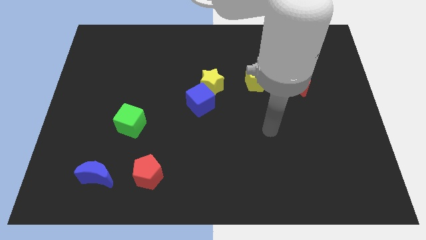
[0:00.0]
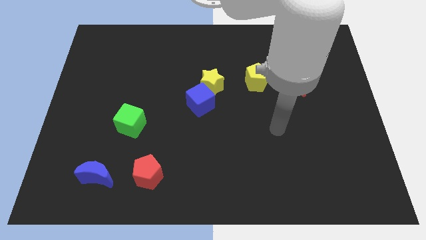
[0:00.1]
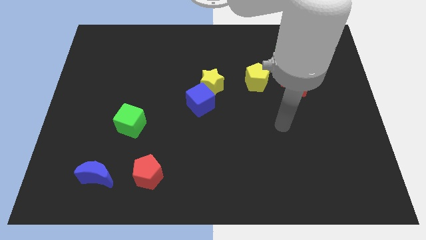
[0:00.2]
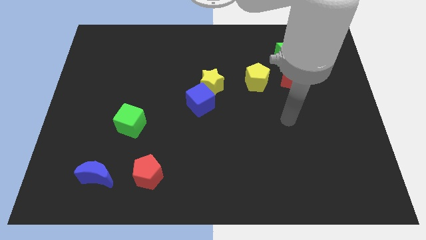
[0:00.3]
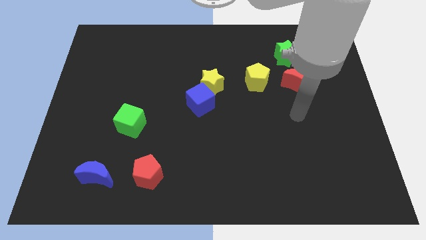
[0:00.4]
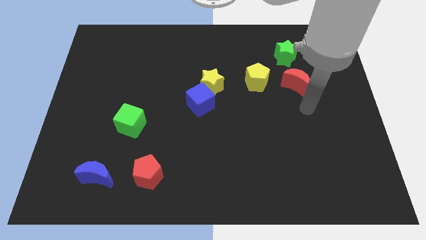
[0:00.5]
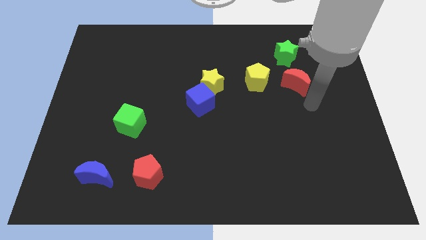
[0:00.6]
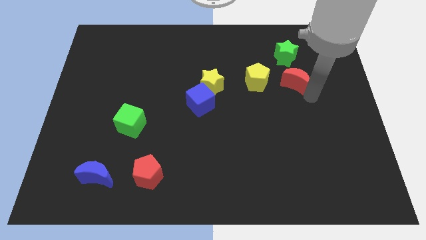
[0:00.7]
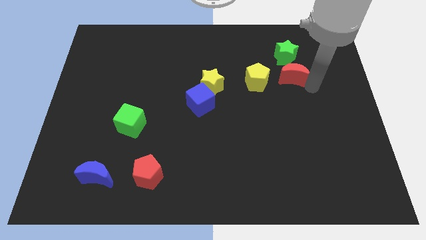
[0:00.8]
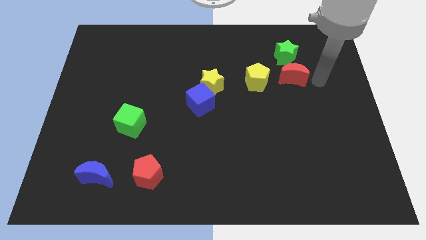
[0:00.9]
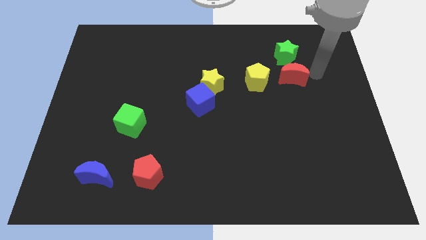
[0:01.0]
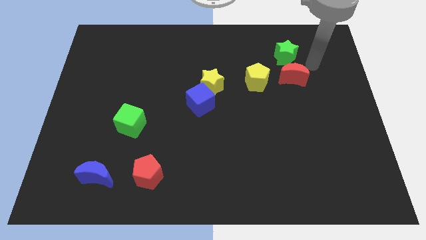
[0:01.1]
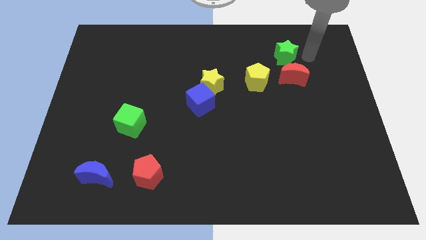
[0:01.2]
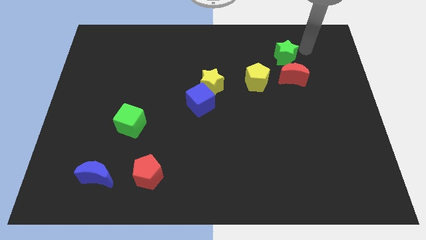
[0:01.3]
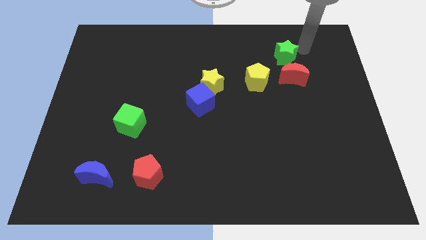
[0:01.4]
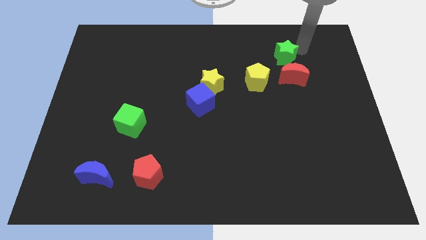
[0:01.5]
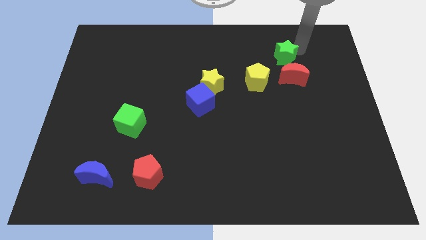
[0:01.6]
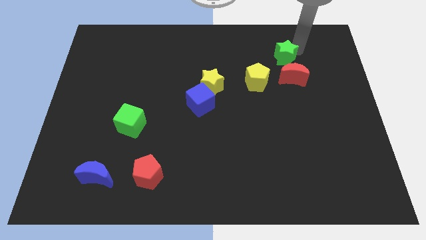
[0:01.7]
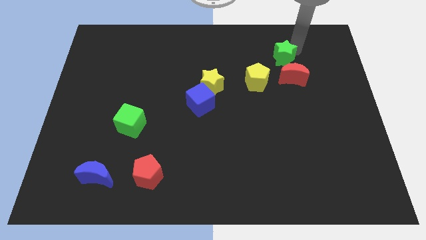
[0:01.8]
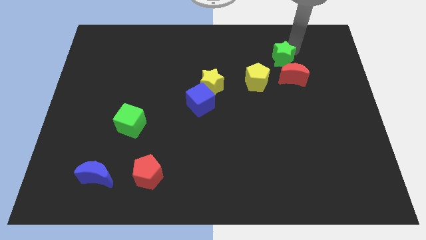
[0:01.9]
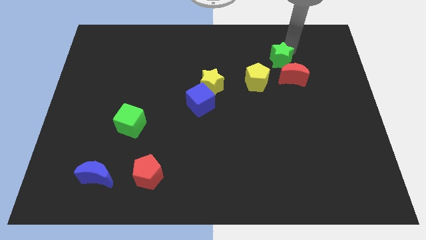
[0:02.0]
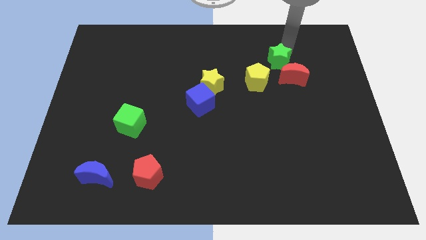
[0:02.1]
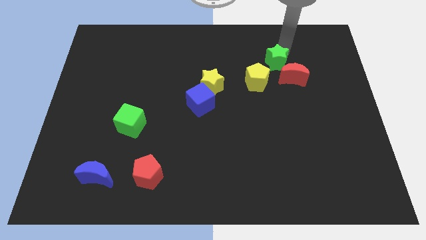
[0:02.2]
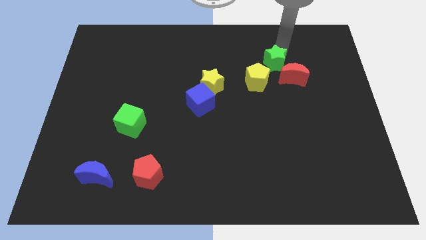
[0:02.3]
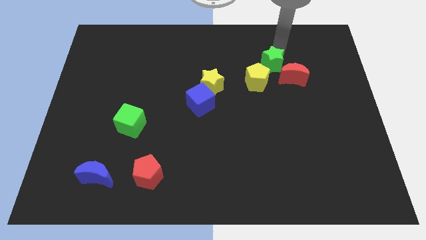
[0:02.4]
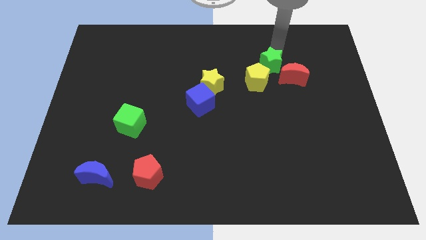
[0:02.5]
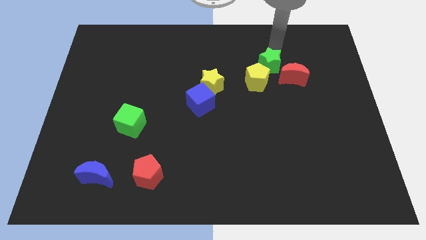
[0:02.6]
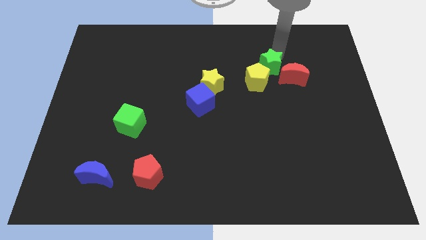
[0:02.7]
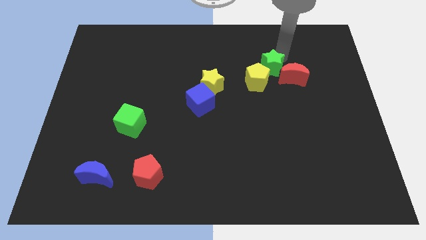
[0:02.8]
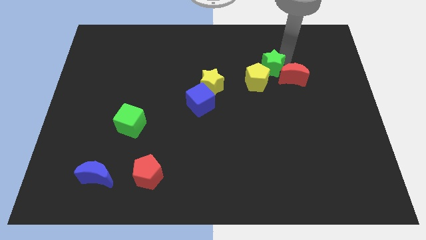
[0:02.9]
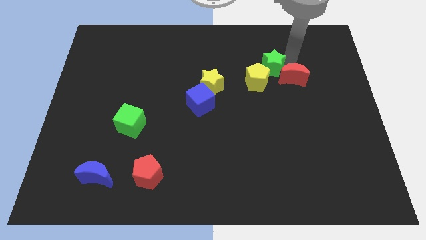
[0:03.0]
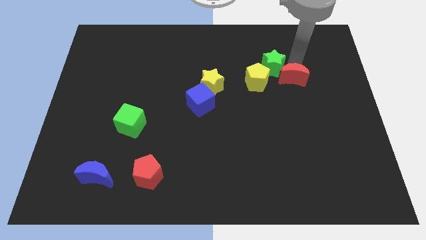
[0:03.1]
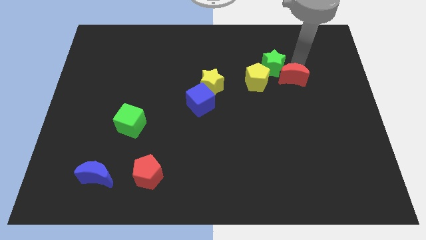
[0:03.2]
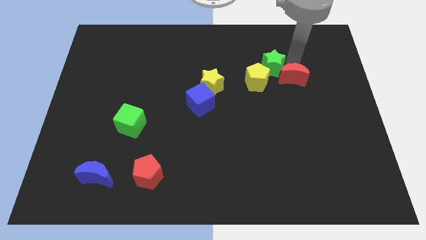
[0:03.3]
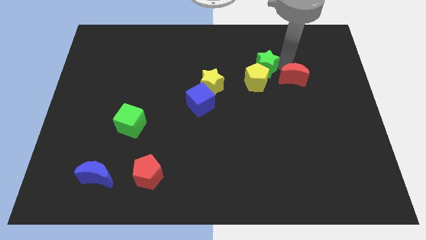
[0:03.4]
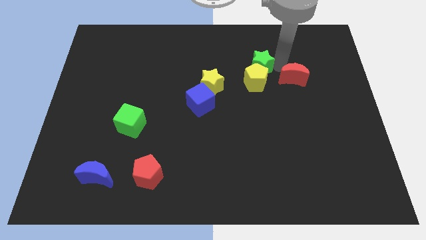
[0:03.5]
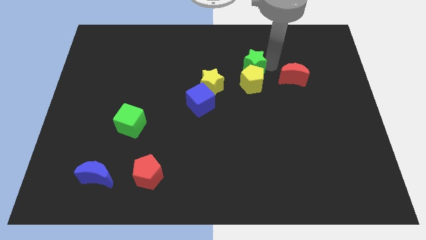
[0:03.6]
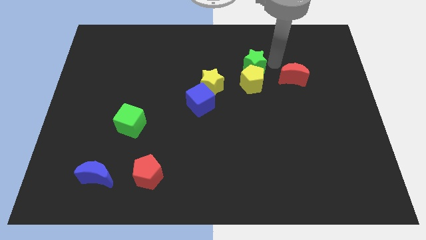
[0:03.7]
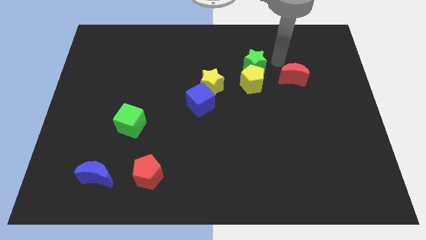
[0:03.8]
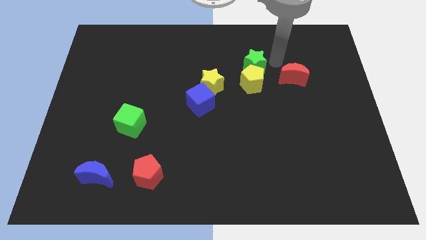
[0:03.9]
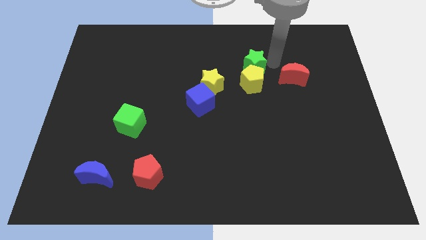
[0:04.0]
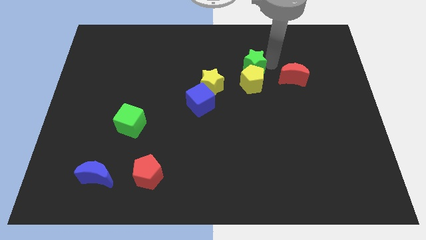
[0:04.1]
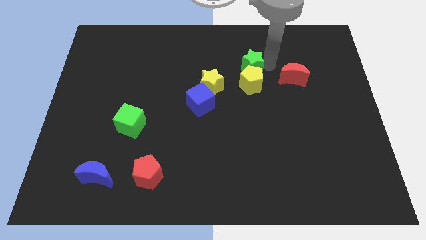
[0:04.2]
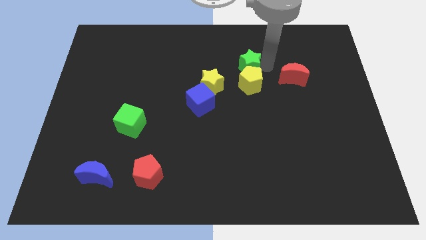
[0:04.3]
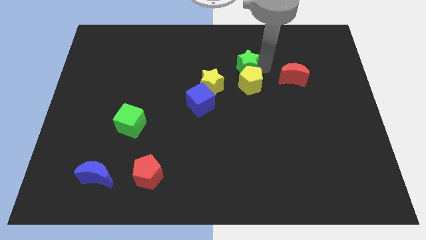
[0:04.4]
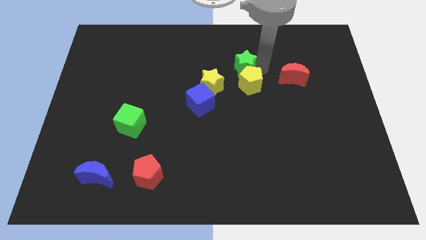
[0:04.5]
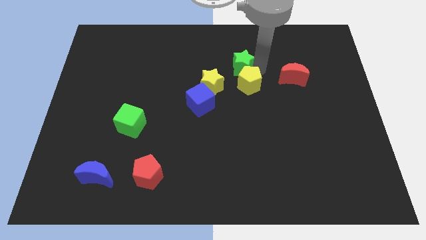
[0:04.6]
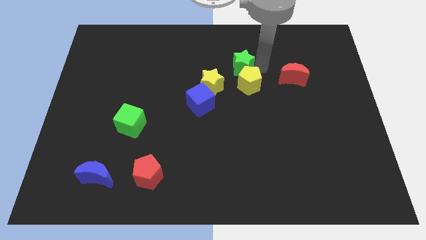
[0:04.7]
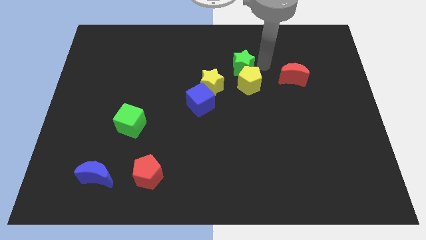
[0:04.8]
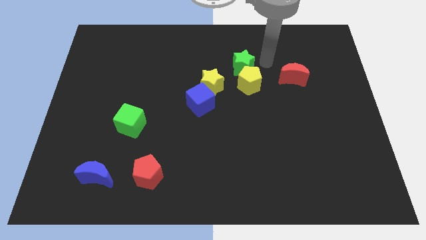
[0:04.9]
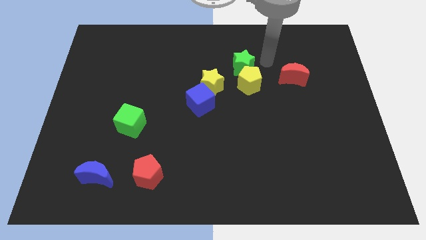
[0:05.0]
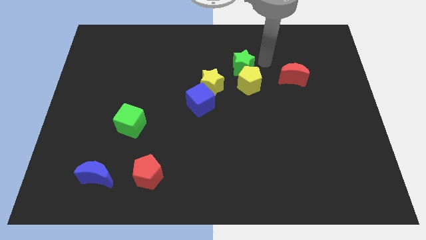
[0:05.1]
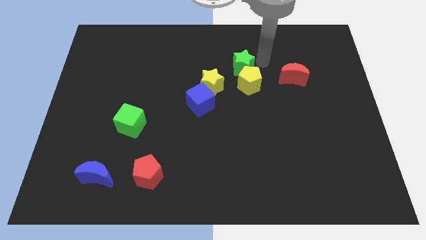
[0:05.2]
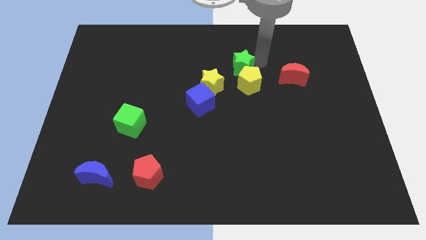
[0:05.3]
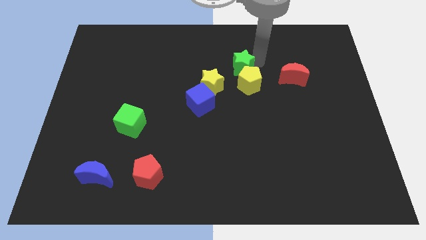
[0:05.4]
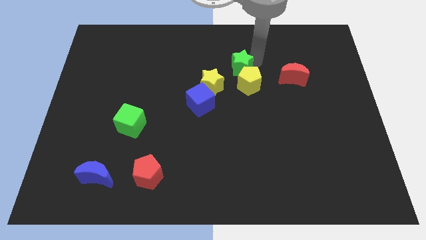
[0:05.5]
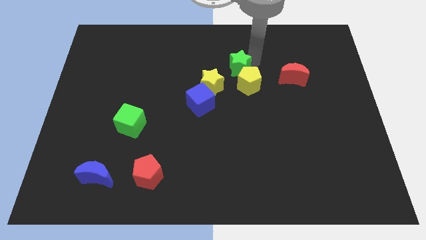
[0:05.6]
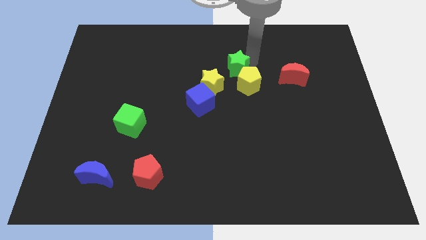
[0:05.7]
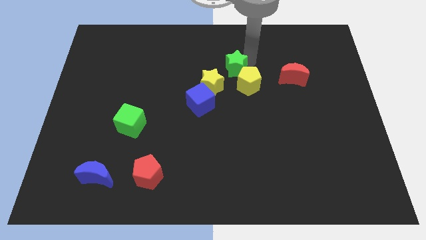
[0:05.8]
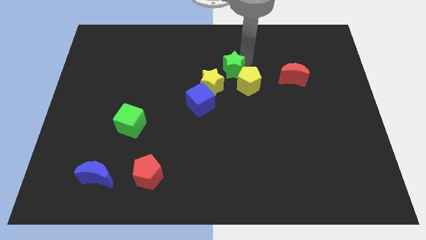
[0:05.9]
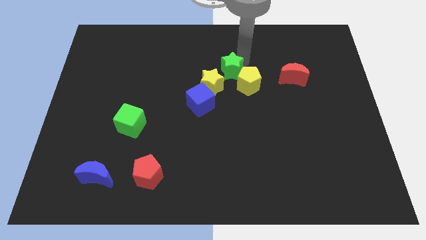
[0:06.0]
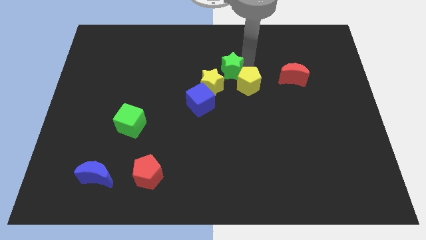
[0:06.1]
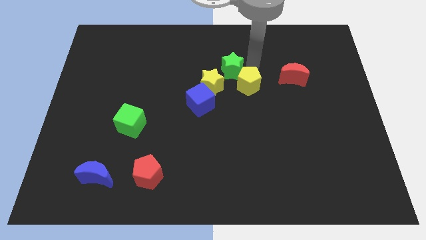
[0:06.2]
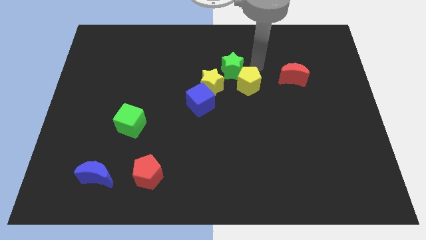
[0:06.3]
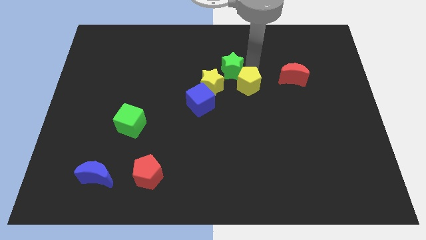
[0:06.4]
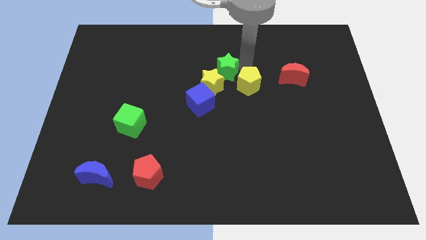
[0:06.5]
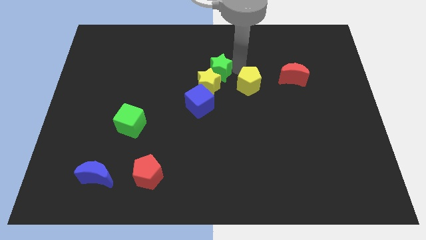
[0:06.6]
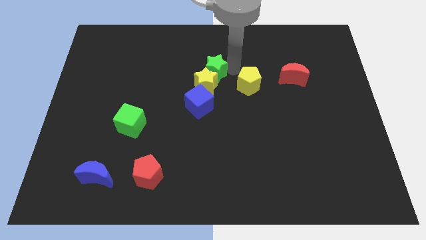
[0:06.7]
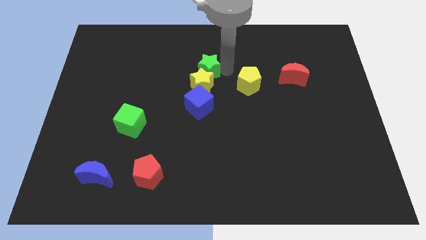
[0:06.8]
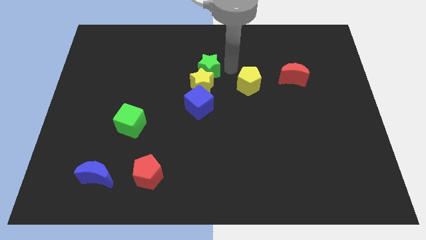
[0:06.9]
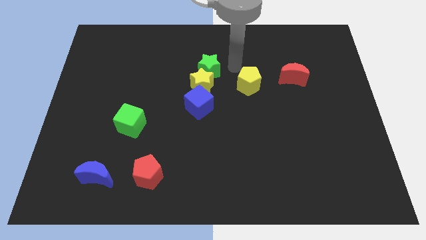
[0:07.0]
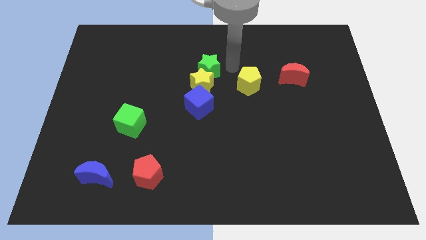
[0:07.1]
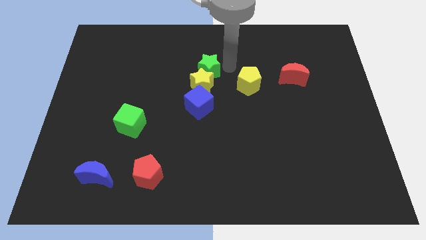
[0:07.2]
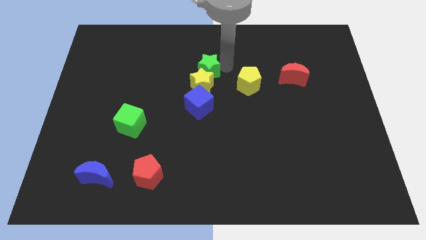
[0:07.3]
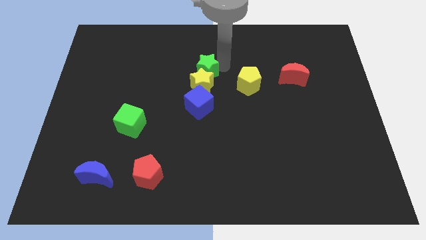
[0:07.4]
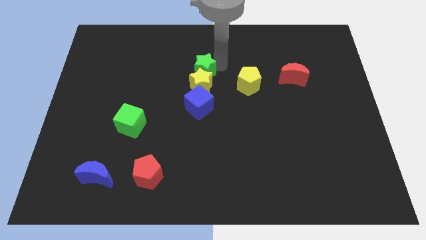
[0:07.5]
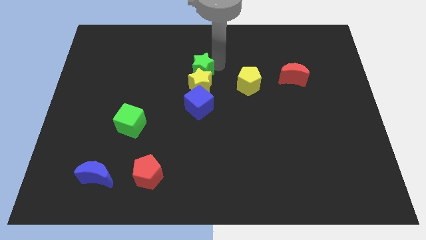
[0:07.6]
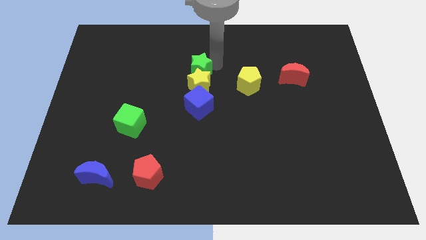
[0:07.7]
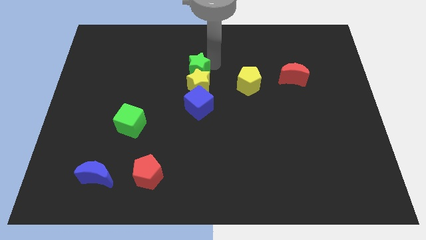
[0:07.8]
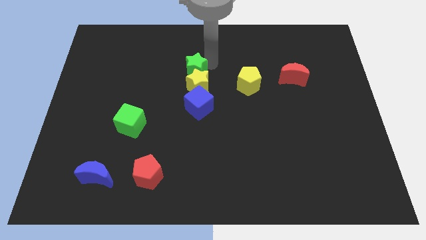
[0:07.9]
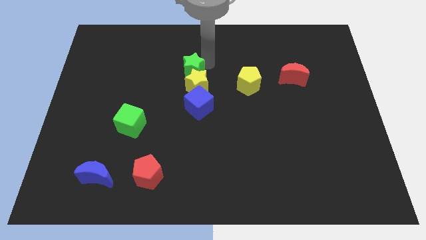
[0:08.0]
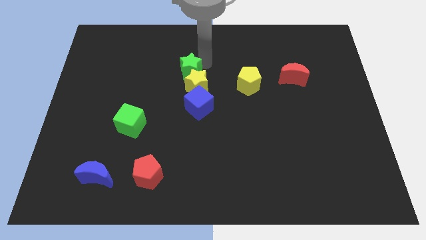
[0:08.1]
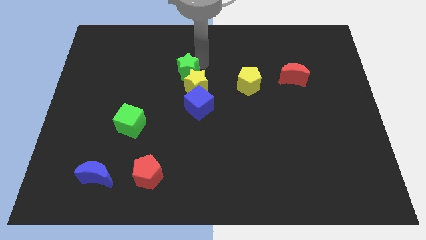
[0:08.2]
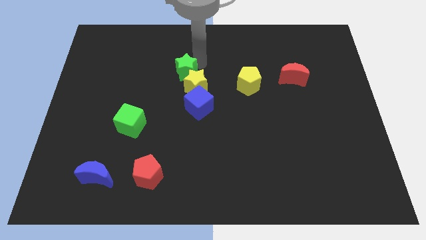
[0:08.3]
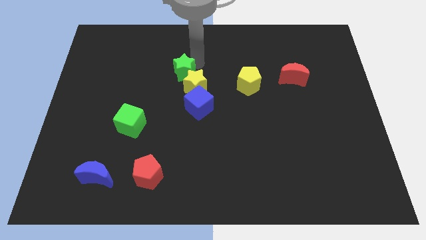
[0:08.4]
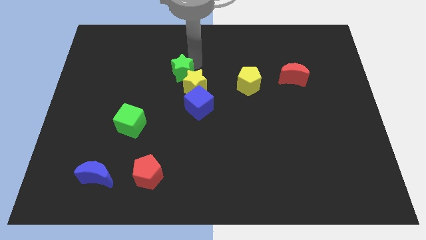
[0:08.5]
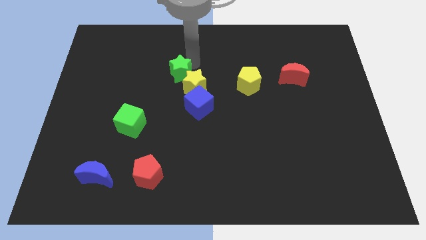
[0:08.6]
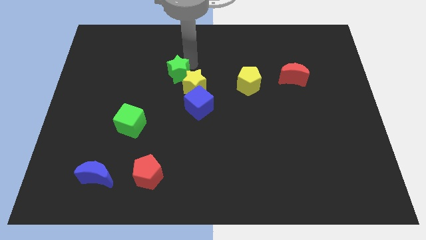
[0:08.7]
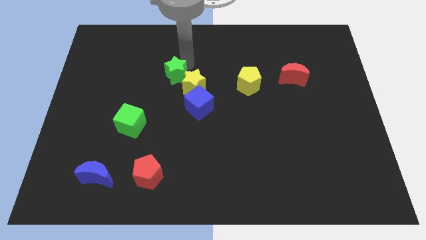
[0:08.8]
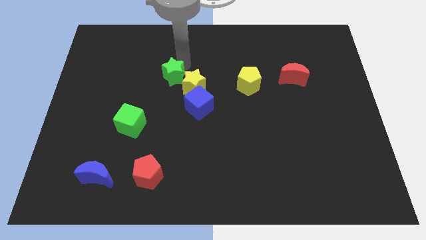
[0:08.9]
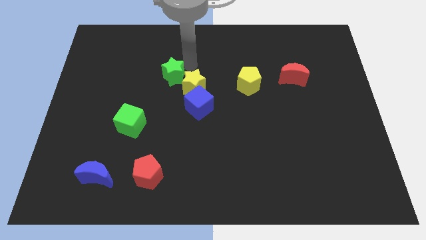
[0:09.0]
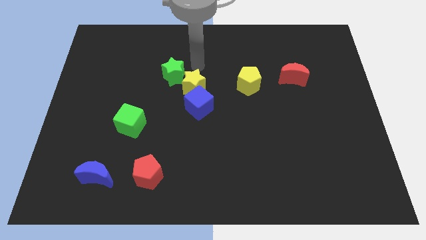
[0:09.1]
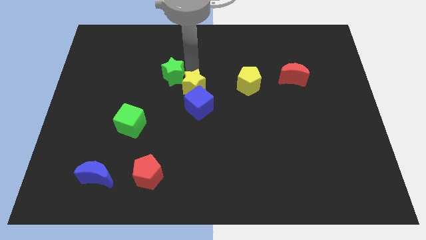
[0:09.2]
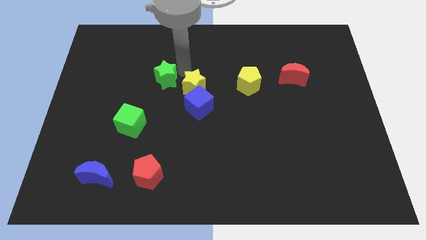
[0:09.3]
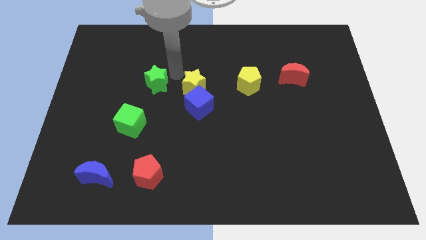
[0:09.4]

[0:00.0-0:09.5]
push the green star to the top of the green cube
